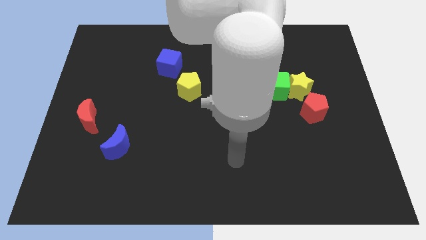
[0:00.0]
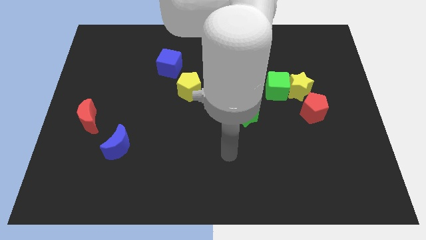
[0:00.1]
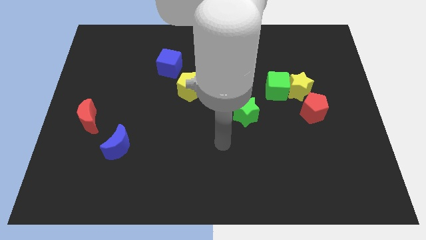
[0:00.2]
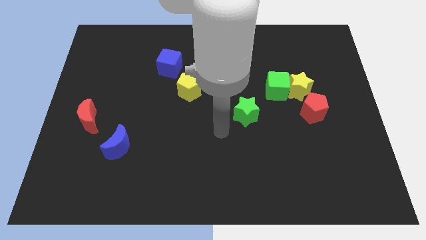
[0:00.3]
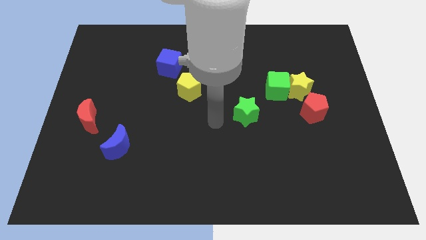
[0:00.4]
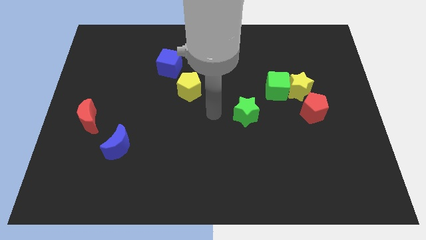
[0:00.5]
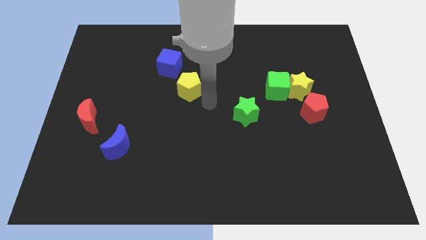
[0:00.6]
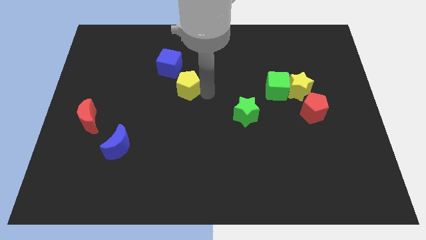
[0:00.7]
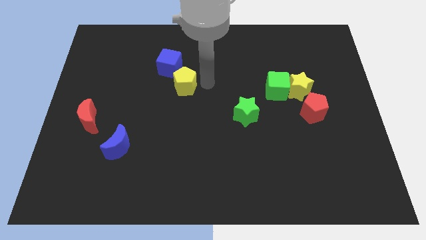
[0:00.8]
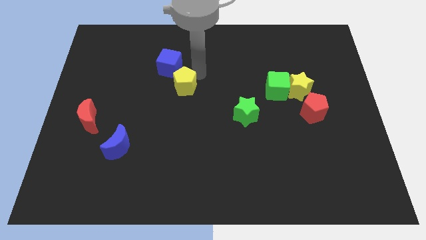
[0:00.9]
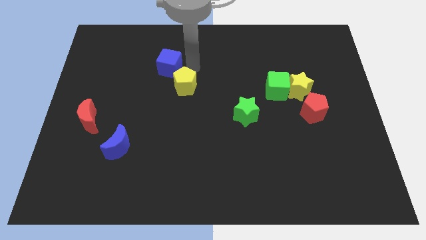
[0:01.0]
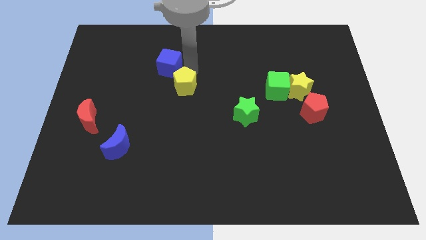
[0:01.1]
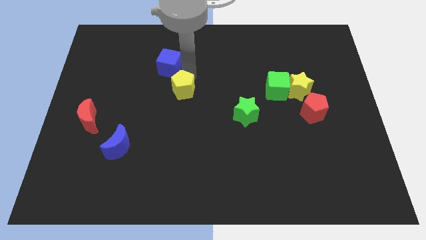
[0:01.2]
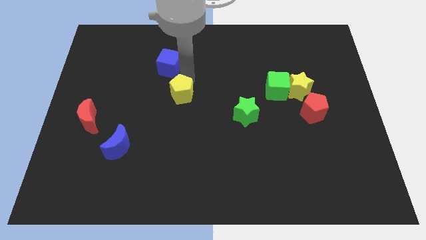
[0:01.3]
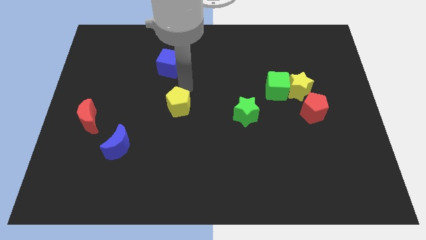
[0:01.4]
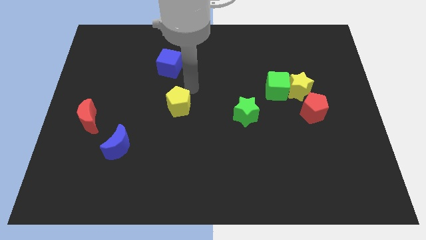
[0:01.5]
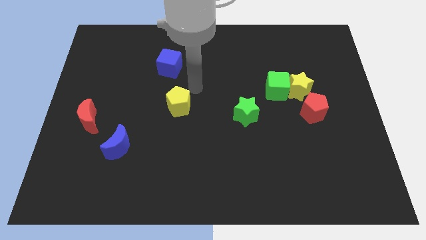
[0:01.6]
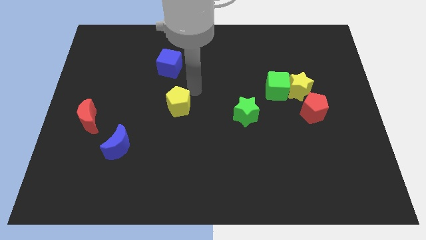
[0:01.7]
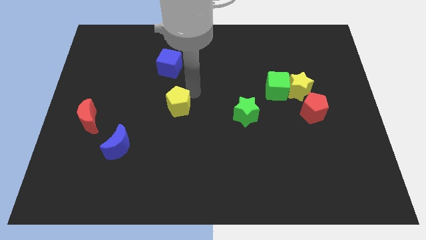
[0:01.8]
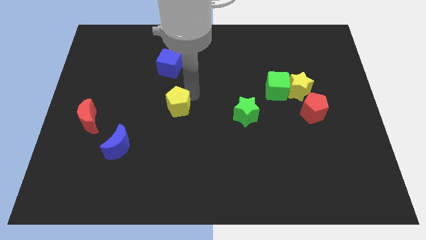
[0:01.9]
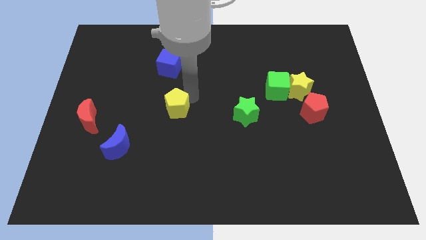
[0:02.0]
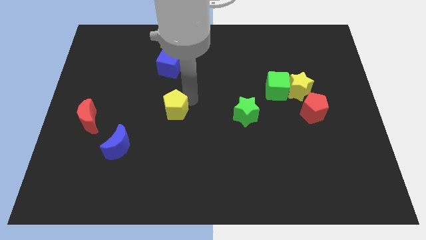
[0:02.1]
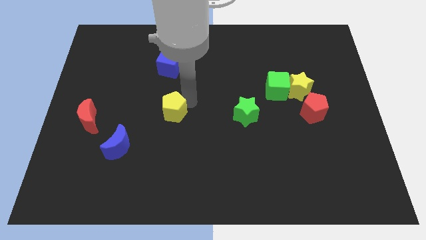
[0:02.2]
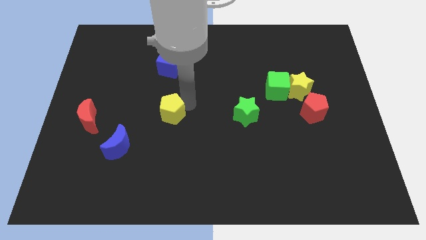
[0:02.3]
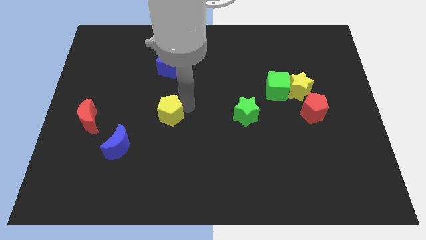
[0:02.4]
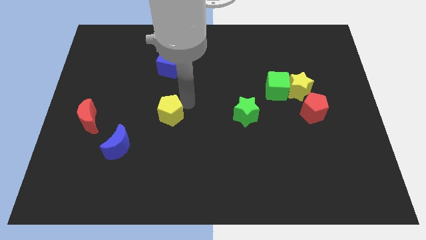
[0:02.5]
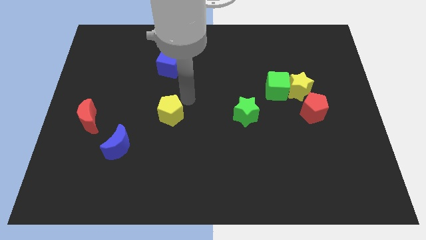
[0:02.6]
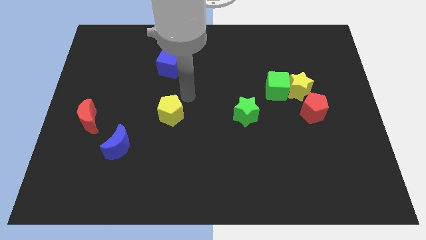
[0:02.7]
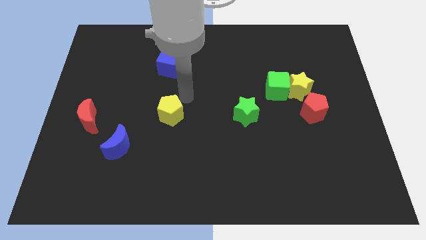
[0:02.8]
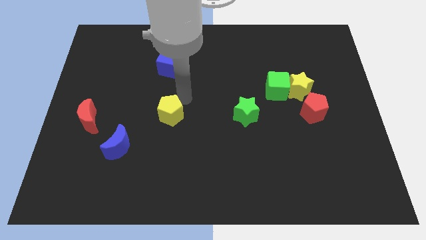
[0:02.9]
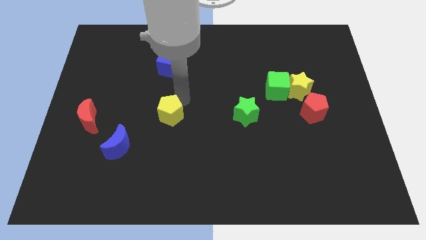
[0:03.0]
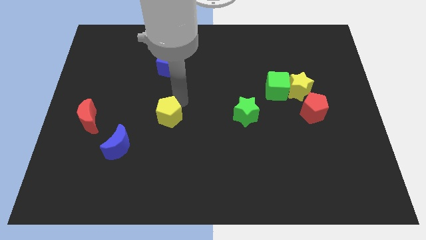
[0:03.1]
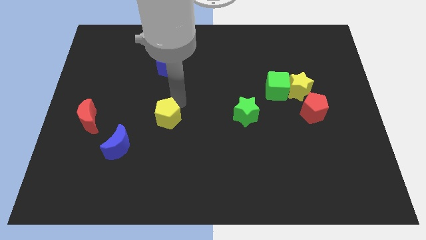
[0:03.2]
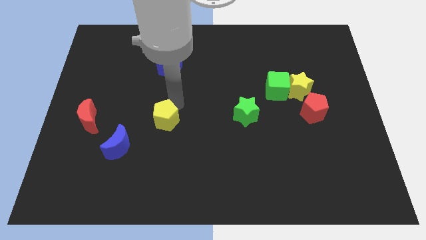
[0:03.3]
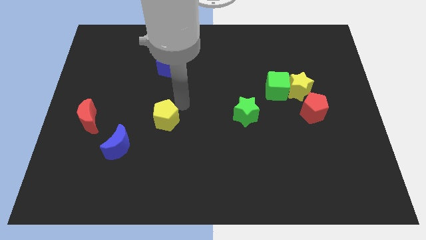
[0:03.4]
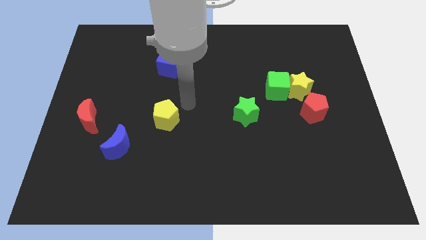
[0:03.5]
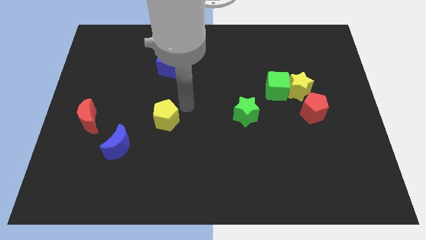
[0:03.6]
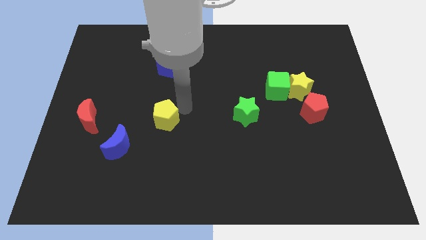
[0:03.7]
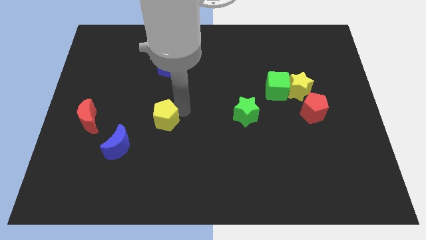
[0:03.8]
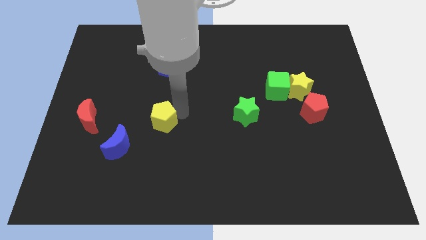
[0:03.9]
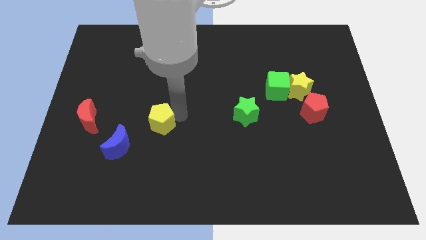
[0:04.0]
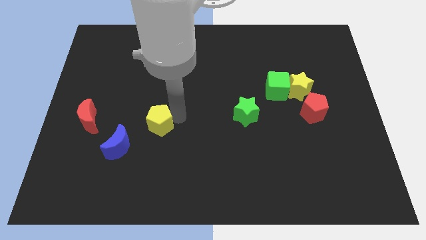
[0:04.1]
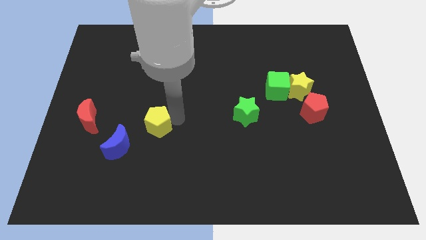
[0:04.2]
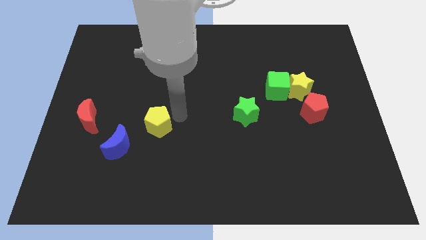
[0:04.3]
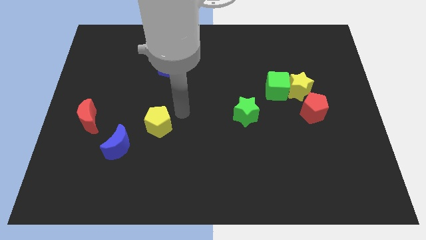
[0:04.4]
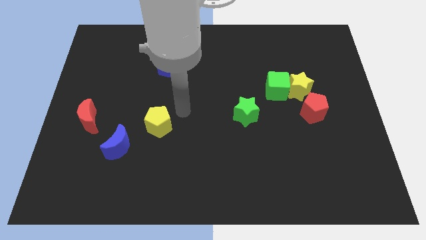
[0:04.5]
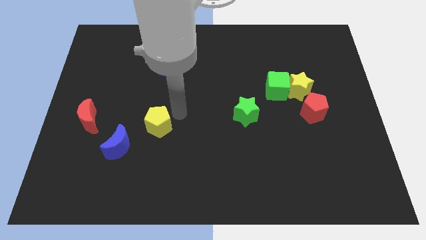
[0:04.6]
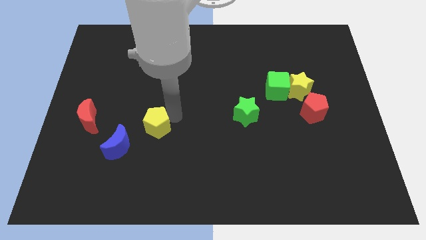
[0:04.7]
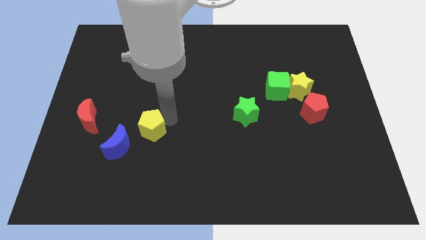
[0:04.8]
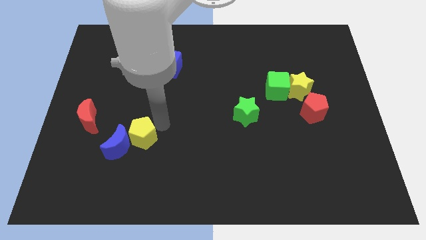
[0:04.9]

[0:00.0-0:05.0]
push the yellow pentagon towards the blue moon

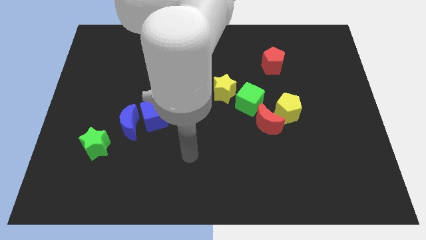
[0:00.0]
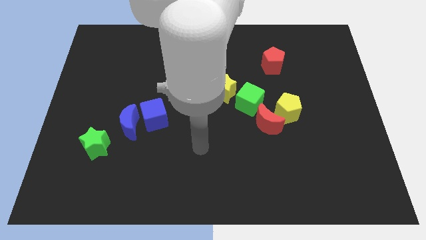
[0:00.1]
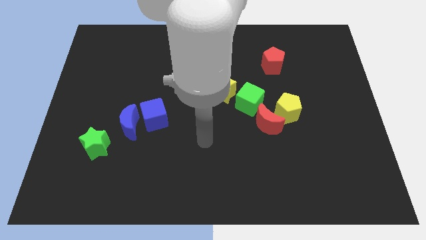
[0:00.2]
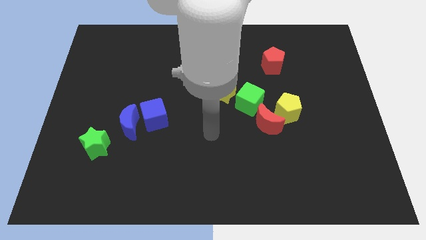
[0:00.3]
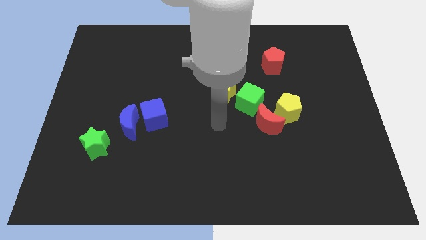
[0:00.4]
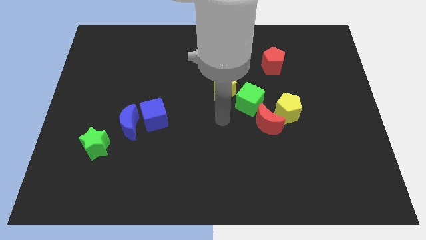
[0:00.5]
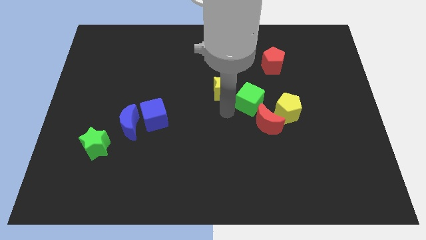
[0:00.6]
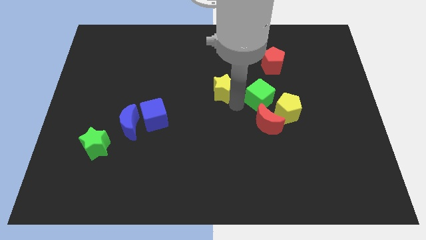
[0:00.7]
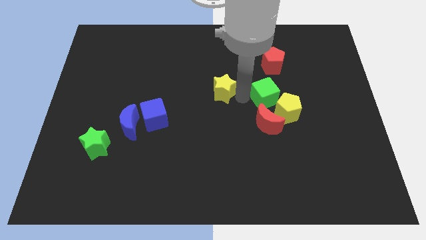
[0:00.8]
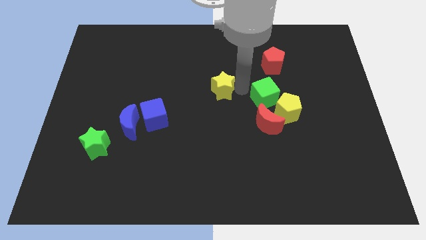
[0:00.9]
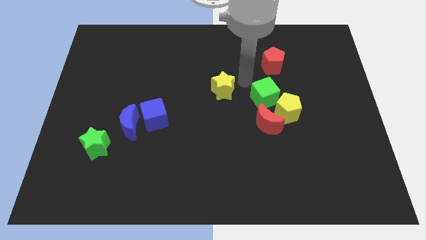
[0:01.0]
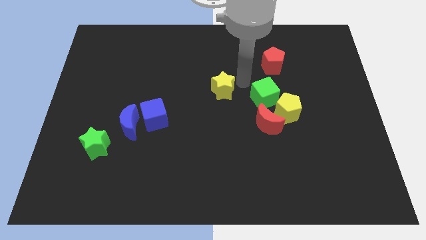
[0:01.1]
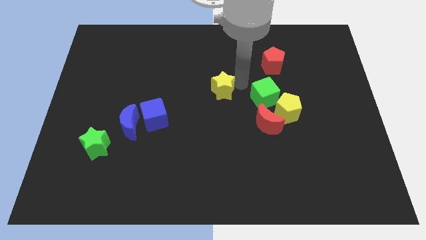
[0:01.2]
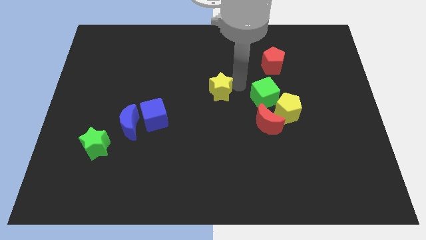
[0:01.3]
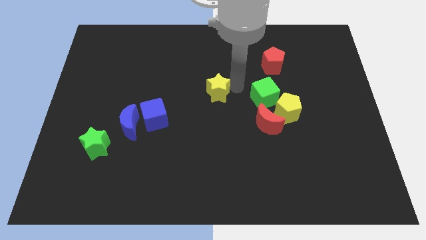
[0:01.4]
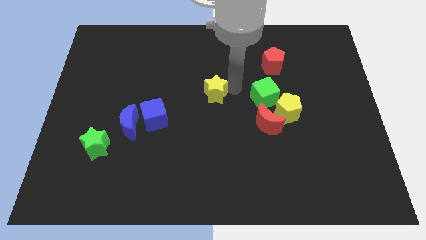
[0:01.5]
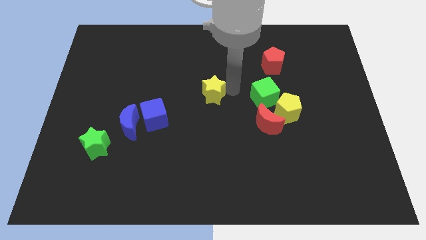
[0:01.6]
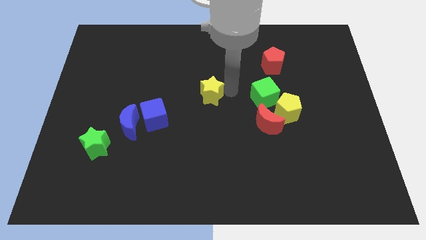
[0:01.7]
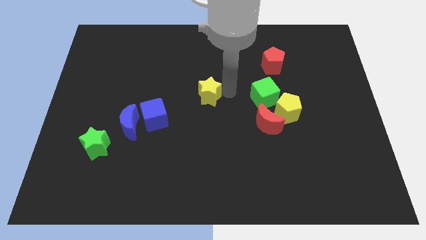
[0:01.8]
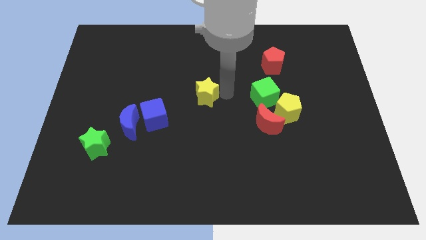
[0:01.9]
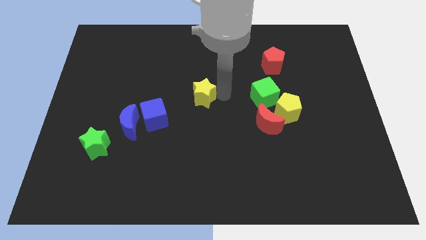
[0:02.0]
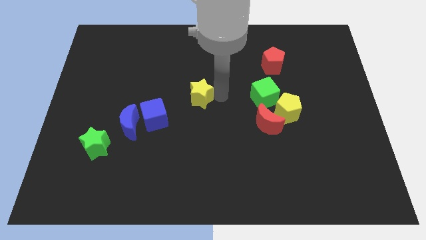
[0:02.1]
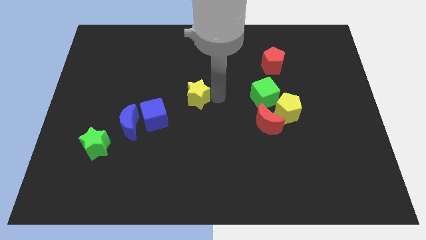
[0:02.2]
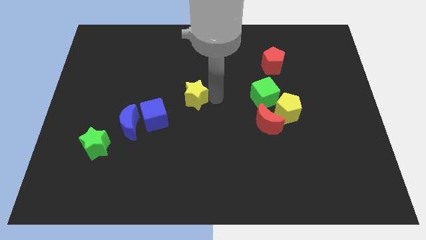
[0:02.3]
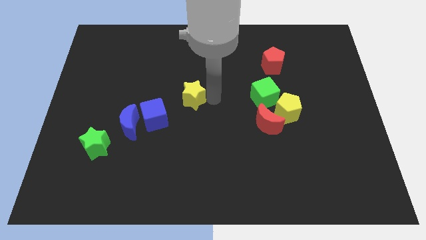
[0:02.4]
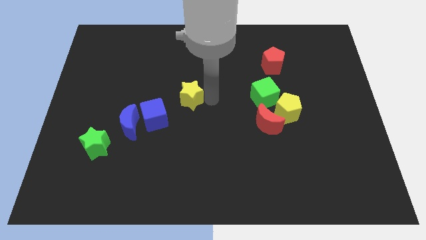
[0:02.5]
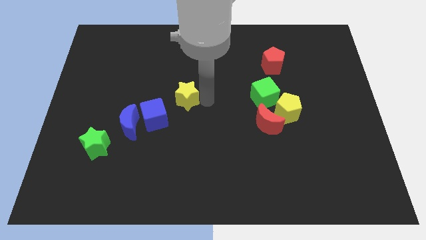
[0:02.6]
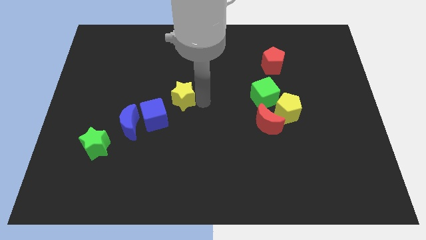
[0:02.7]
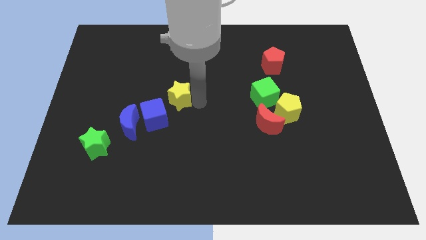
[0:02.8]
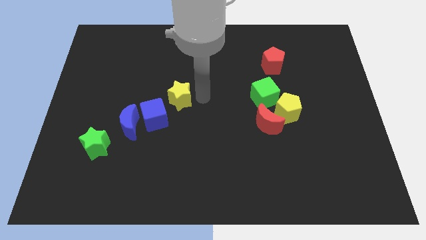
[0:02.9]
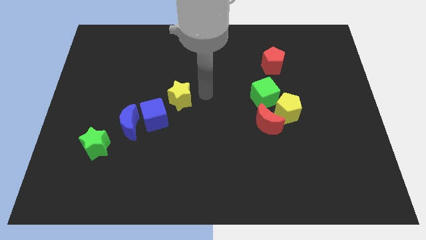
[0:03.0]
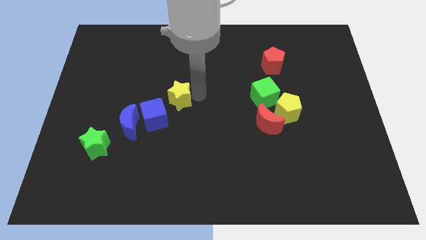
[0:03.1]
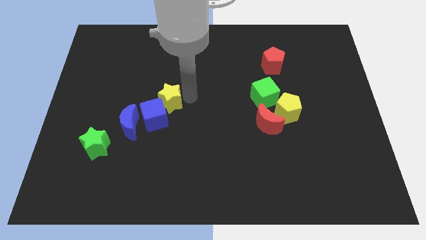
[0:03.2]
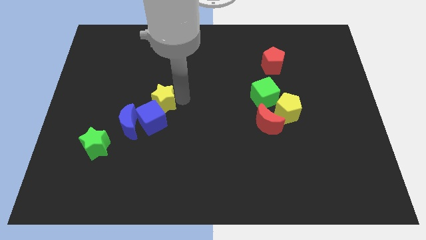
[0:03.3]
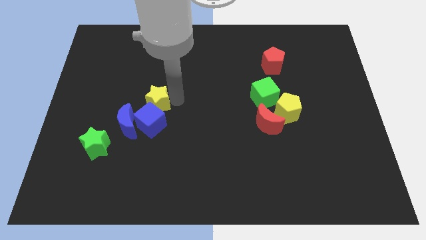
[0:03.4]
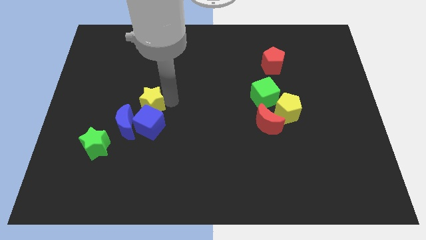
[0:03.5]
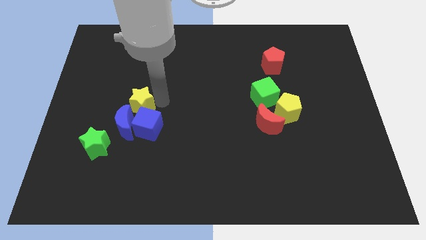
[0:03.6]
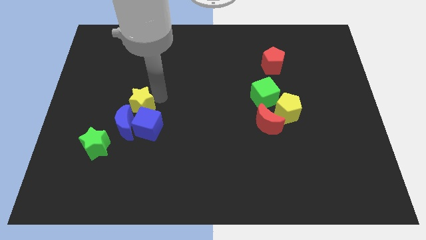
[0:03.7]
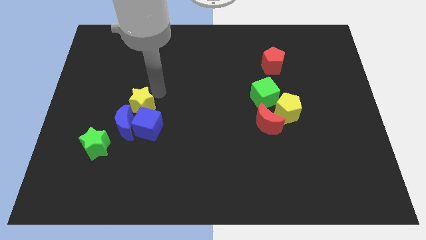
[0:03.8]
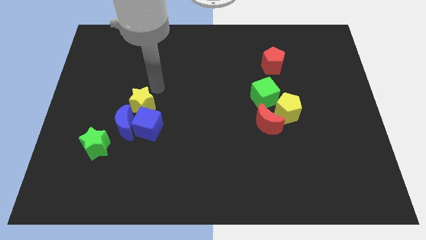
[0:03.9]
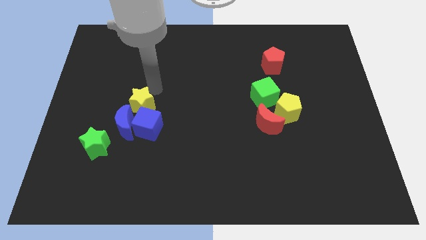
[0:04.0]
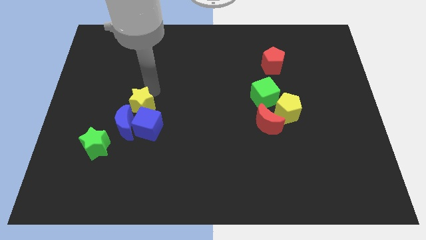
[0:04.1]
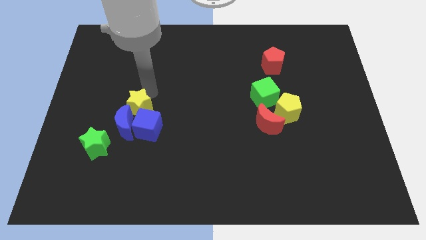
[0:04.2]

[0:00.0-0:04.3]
put the yellow star next to the blue moon
